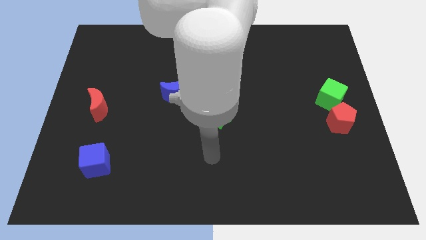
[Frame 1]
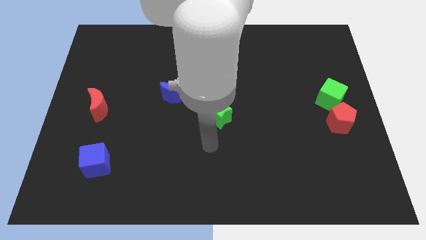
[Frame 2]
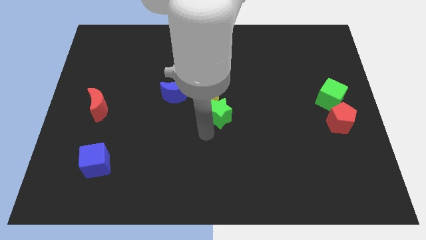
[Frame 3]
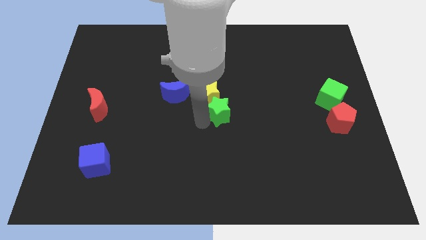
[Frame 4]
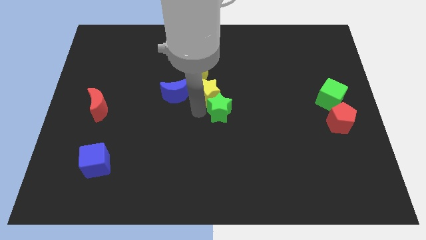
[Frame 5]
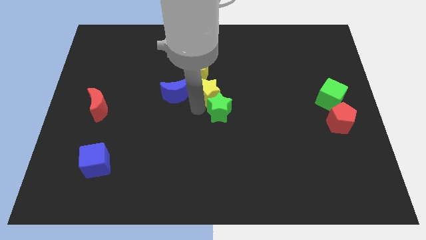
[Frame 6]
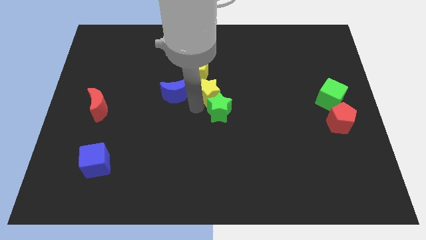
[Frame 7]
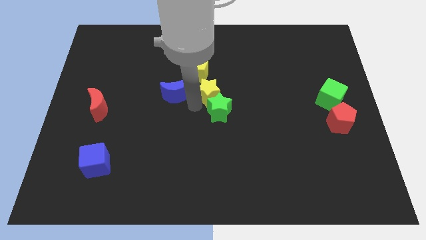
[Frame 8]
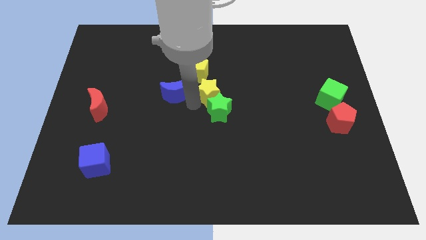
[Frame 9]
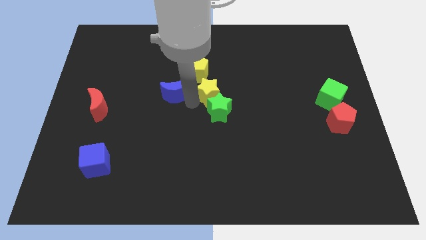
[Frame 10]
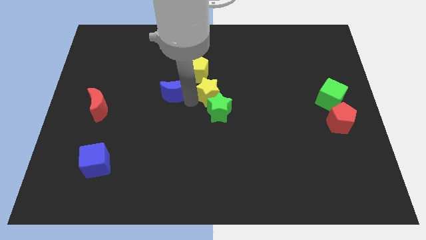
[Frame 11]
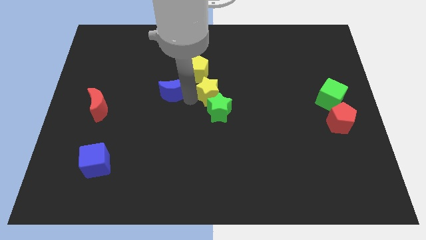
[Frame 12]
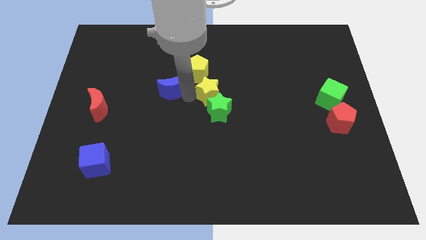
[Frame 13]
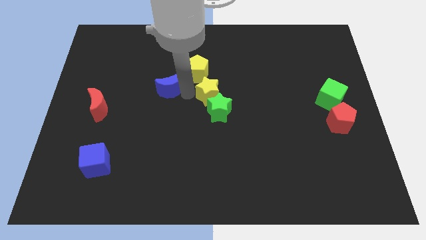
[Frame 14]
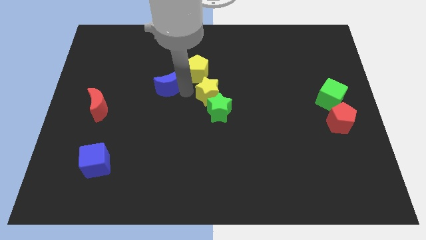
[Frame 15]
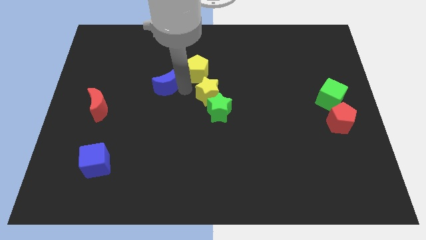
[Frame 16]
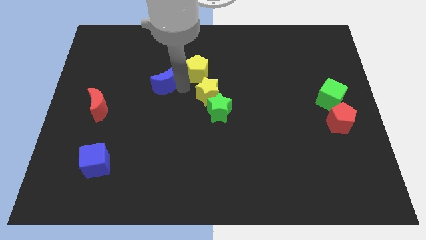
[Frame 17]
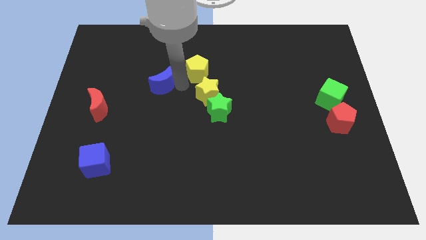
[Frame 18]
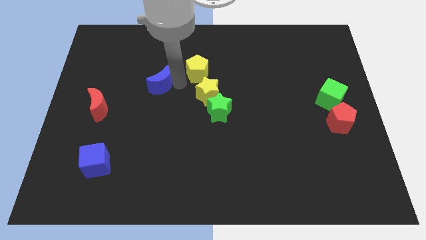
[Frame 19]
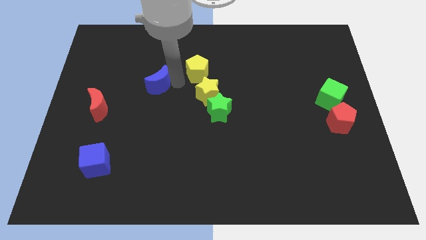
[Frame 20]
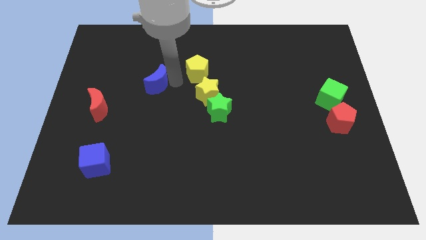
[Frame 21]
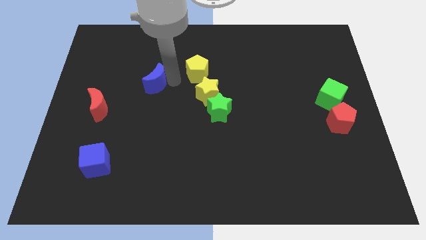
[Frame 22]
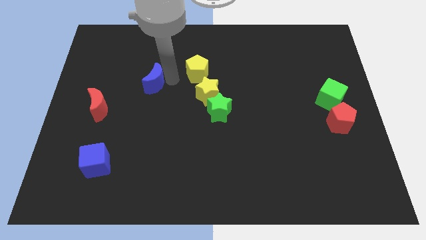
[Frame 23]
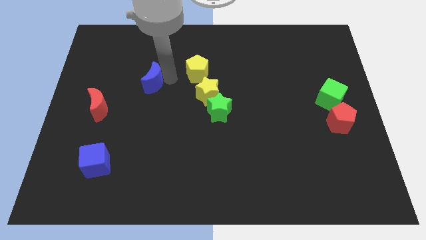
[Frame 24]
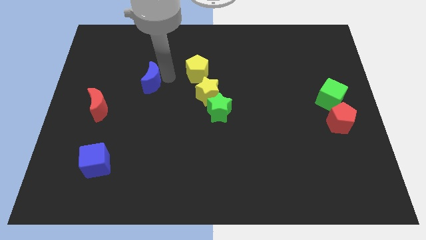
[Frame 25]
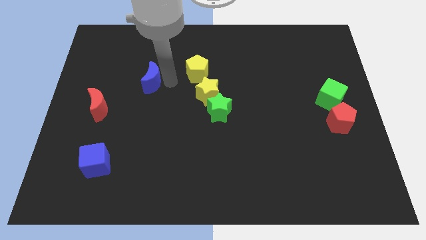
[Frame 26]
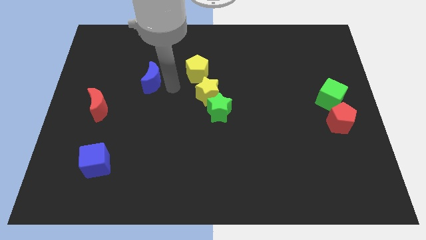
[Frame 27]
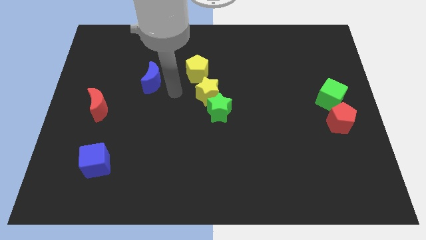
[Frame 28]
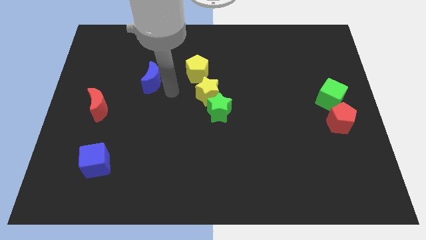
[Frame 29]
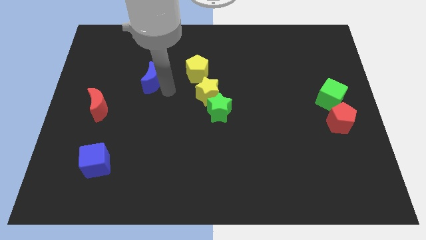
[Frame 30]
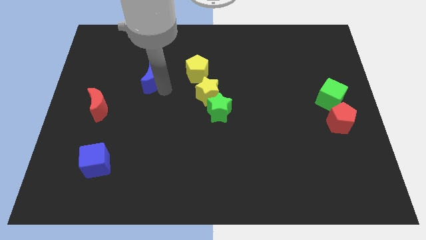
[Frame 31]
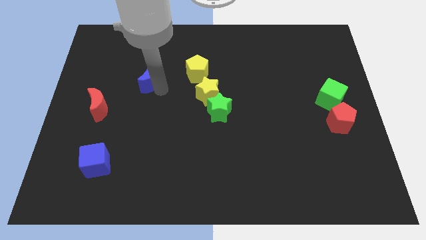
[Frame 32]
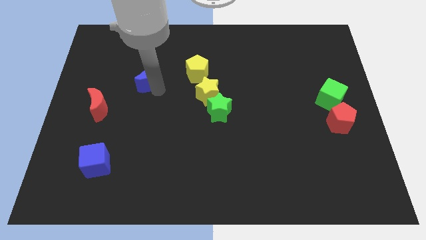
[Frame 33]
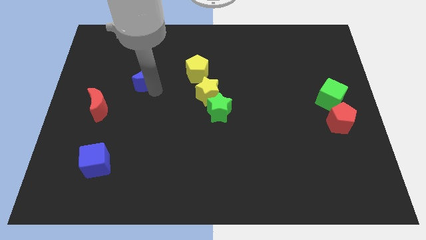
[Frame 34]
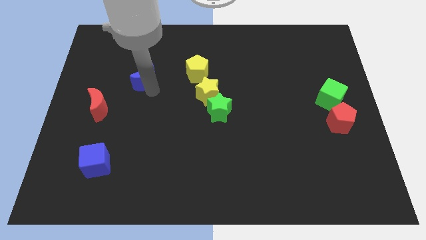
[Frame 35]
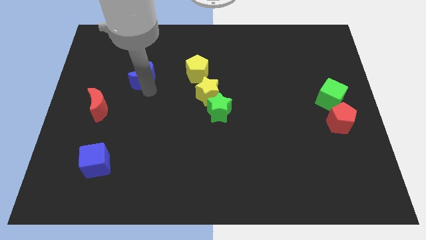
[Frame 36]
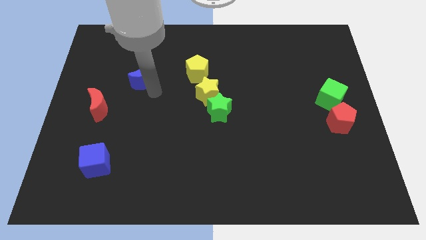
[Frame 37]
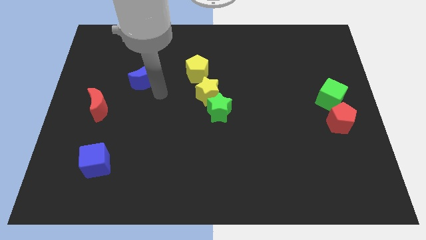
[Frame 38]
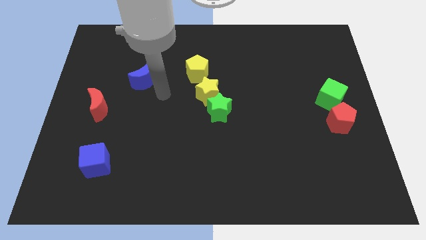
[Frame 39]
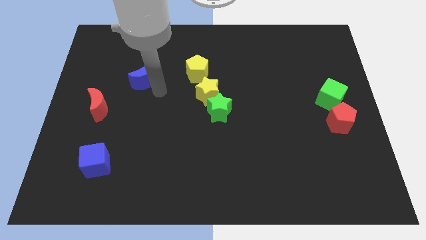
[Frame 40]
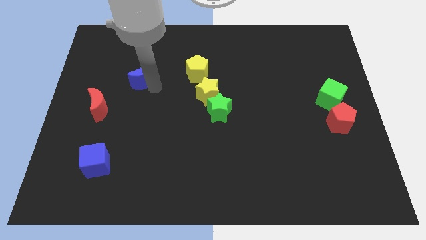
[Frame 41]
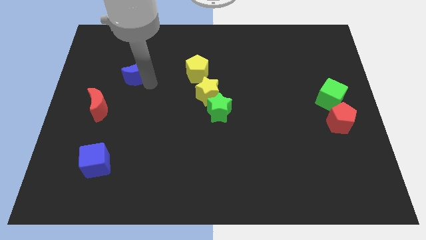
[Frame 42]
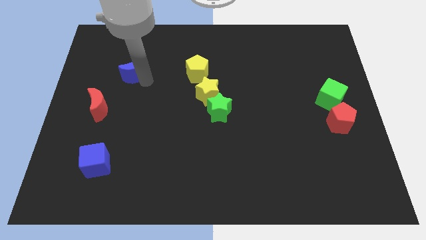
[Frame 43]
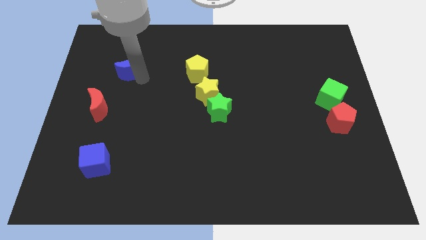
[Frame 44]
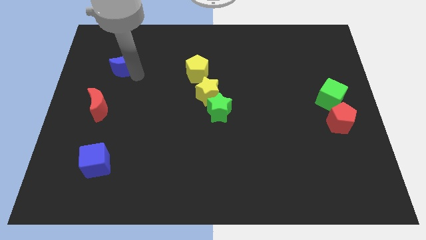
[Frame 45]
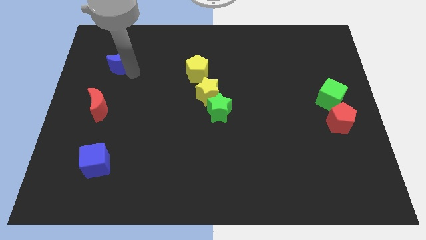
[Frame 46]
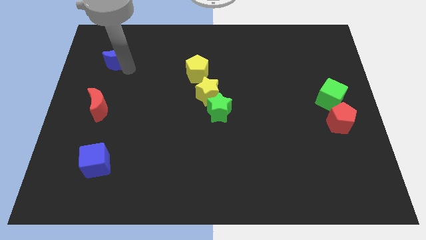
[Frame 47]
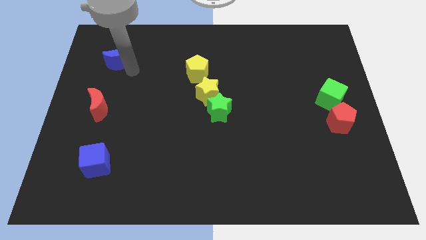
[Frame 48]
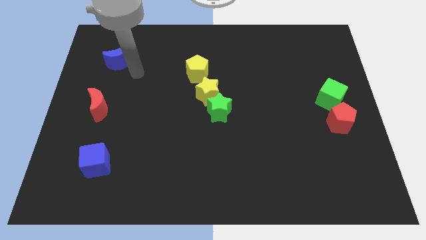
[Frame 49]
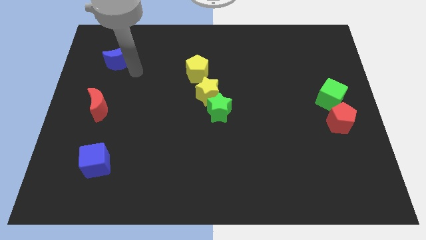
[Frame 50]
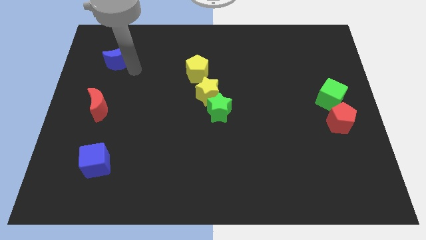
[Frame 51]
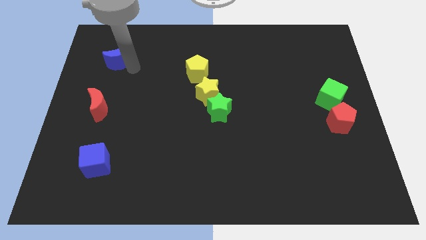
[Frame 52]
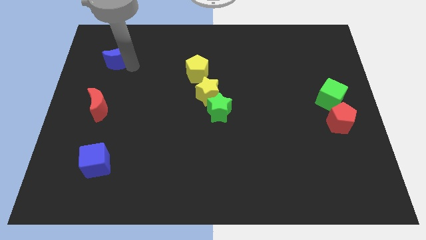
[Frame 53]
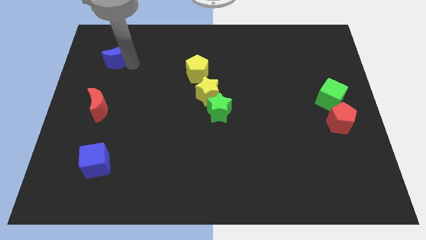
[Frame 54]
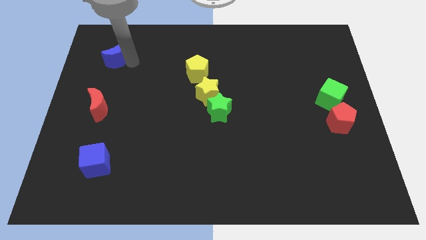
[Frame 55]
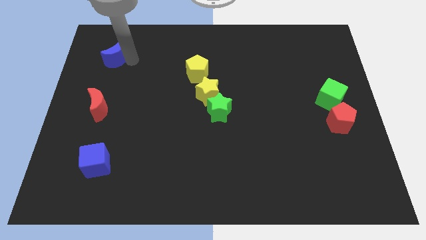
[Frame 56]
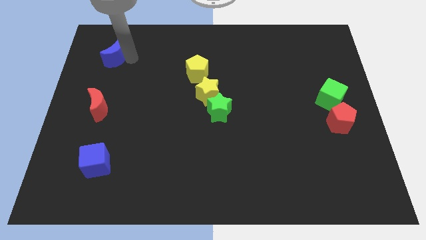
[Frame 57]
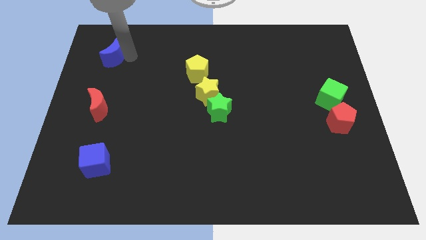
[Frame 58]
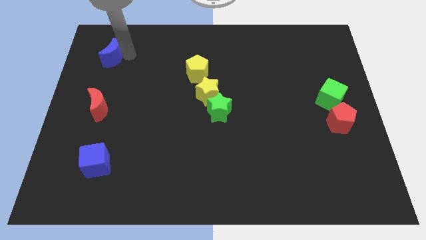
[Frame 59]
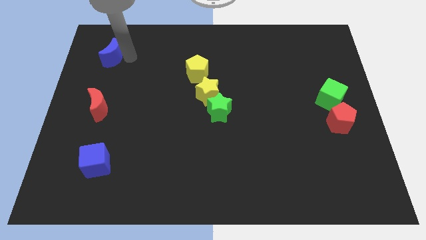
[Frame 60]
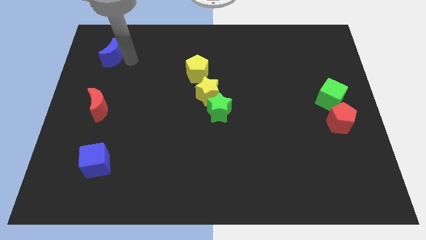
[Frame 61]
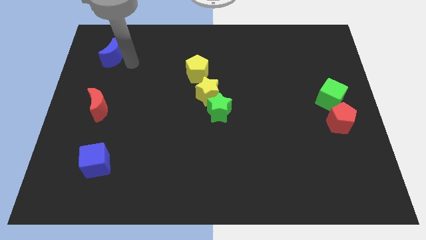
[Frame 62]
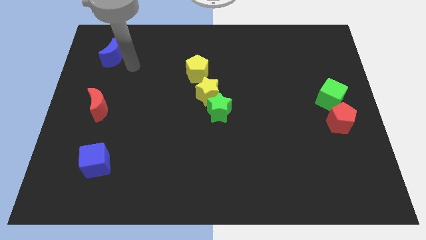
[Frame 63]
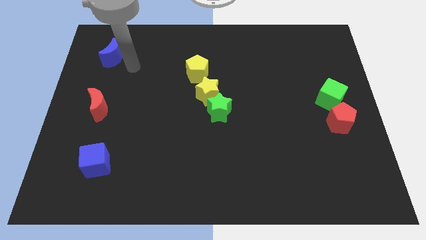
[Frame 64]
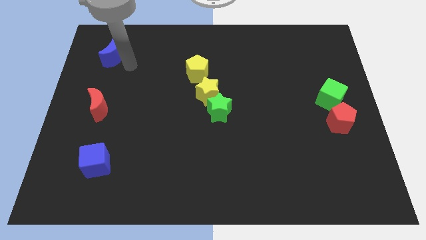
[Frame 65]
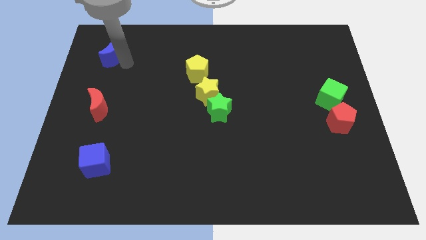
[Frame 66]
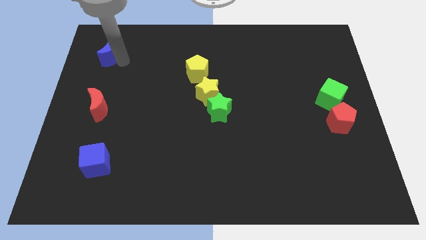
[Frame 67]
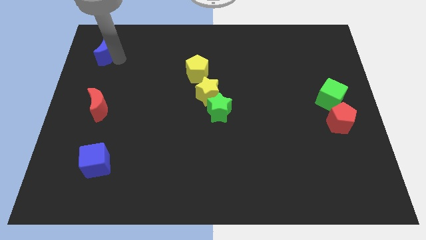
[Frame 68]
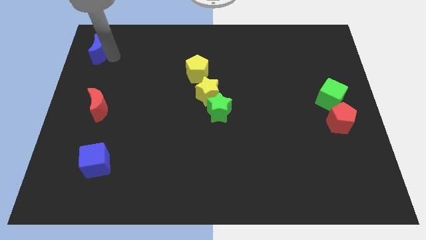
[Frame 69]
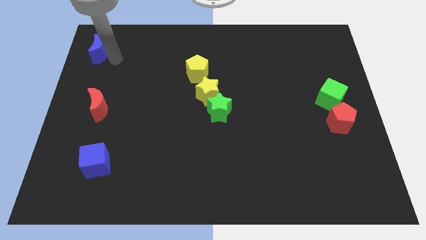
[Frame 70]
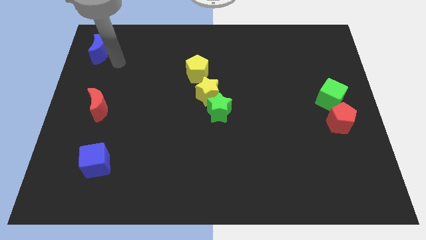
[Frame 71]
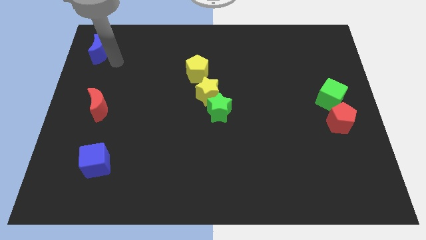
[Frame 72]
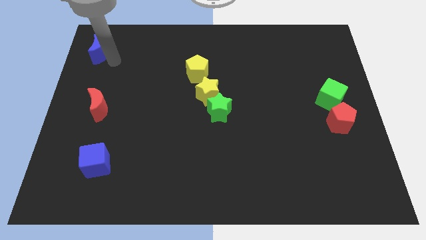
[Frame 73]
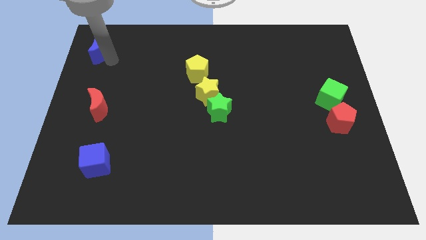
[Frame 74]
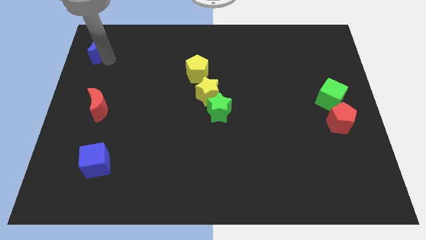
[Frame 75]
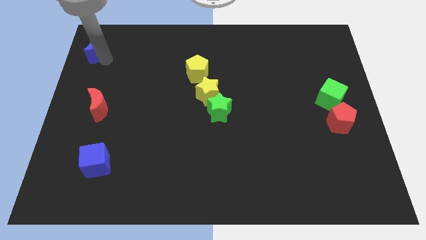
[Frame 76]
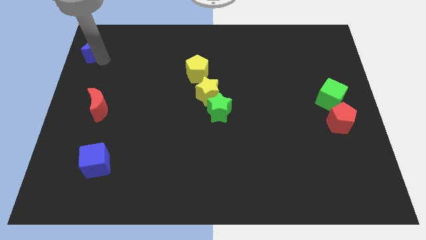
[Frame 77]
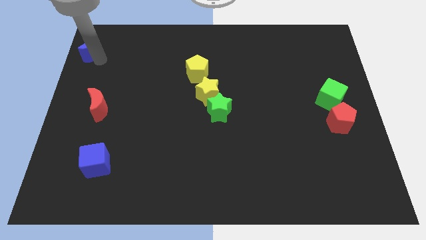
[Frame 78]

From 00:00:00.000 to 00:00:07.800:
slide the blue moon to the upper left corner
